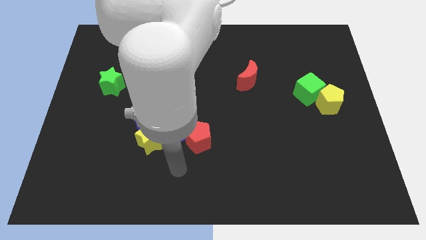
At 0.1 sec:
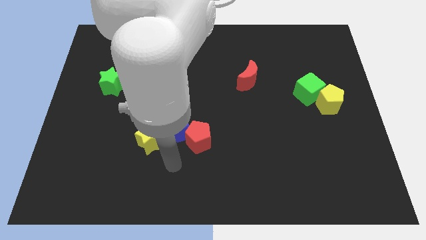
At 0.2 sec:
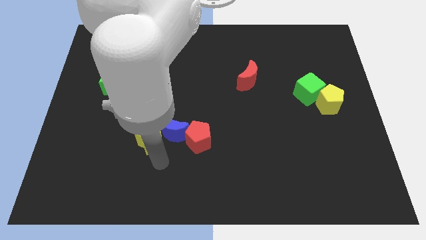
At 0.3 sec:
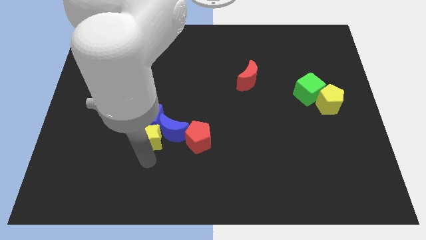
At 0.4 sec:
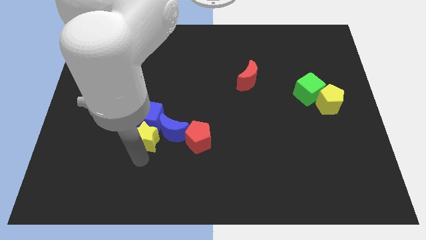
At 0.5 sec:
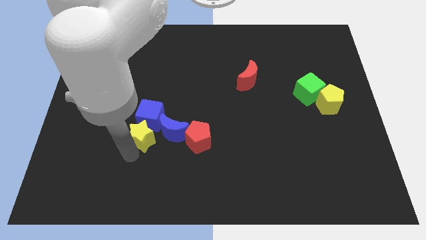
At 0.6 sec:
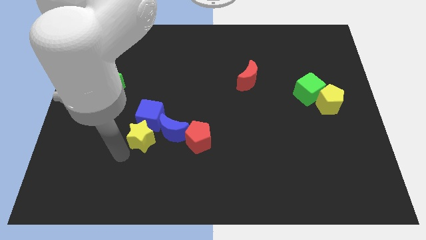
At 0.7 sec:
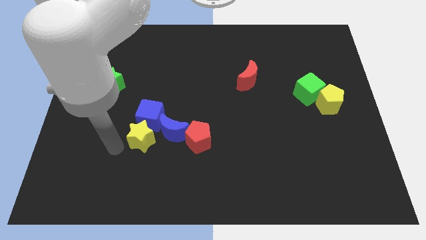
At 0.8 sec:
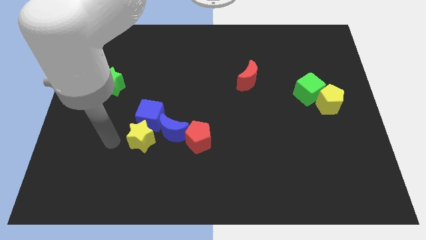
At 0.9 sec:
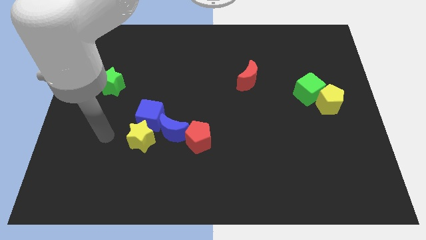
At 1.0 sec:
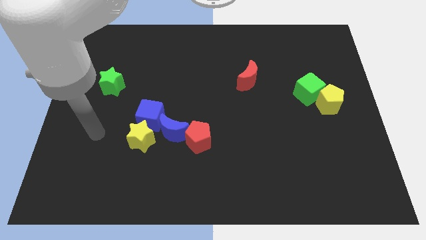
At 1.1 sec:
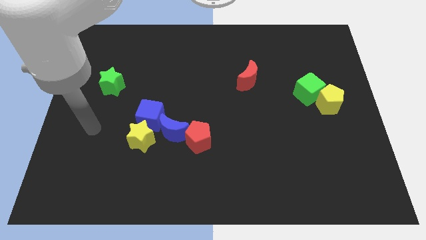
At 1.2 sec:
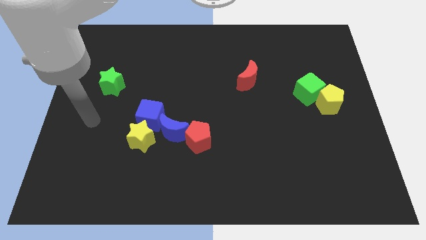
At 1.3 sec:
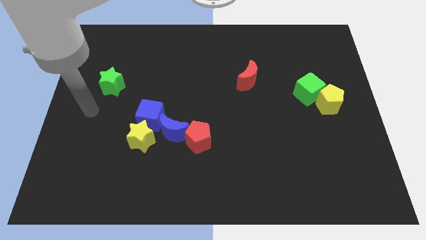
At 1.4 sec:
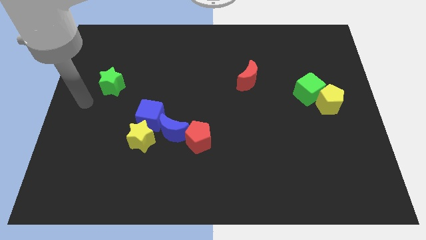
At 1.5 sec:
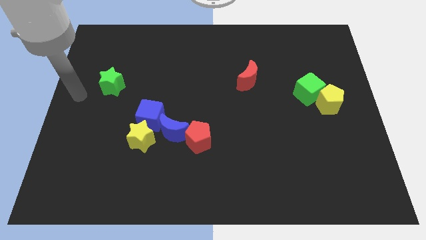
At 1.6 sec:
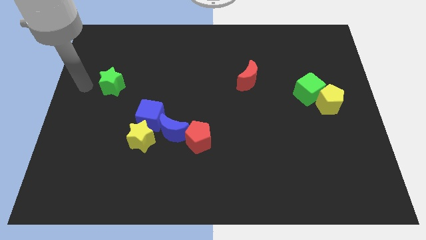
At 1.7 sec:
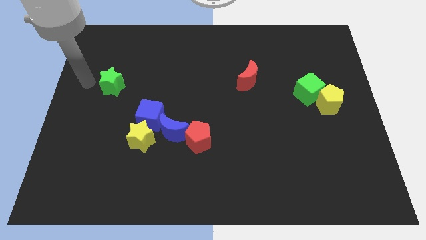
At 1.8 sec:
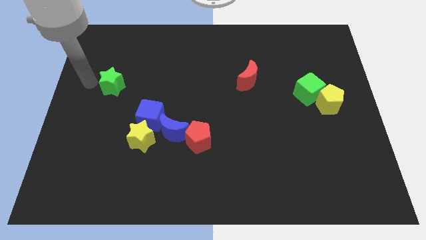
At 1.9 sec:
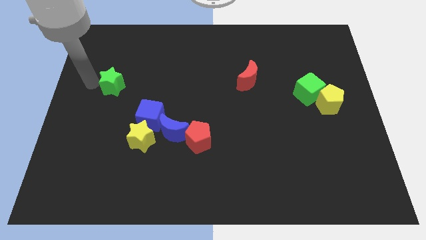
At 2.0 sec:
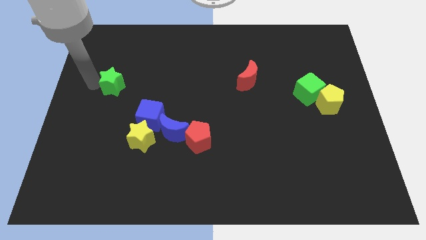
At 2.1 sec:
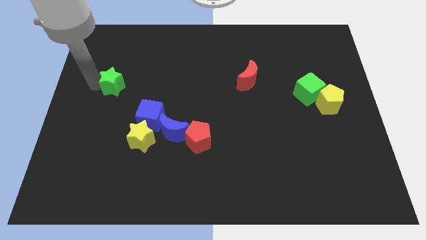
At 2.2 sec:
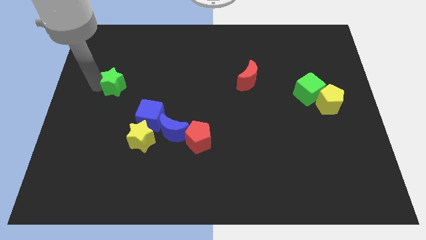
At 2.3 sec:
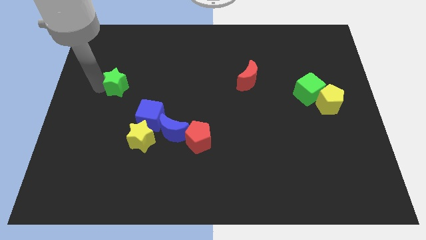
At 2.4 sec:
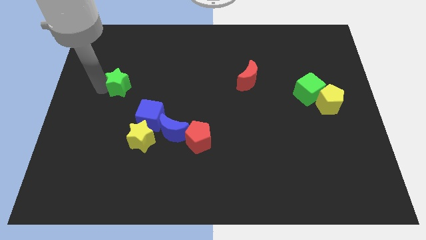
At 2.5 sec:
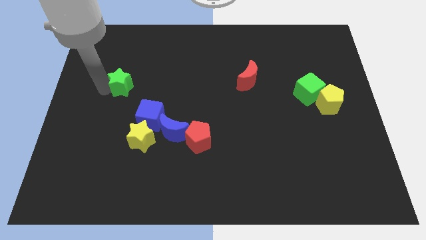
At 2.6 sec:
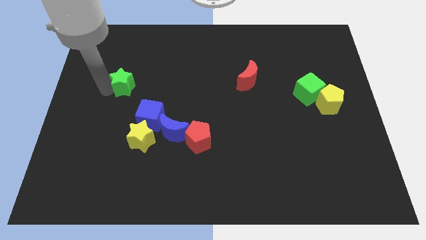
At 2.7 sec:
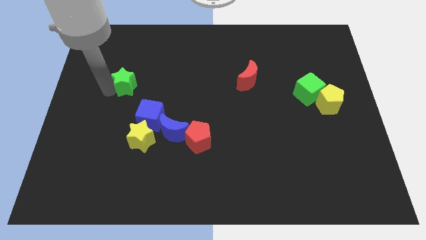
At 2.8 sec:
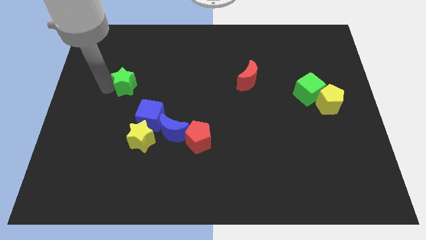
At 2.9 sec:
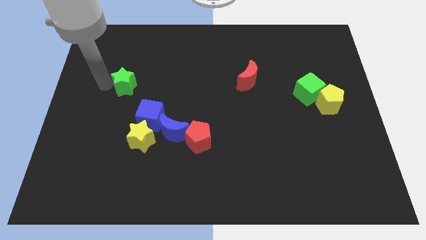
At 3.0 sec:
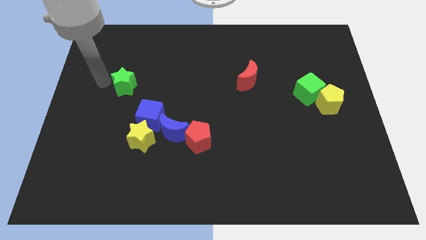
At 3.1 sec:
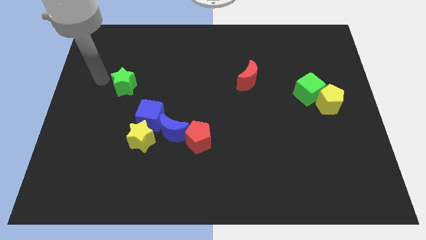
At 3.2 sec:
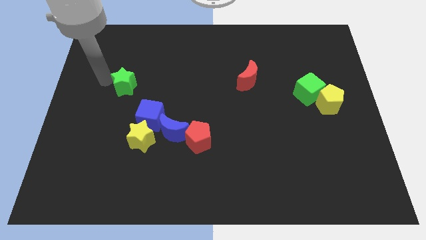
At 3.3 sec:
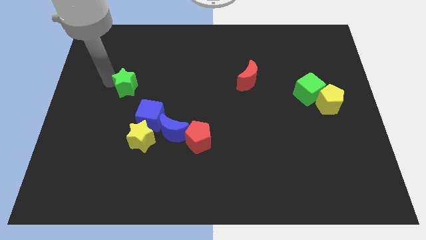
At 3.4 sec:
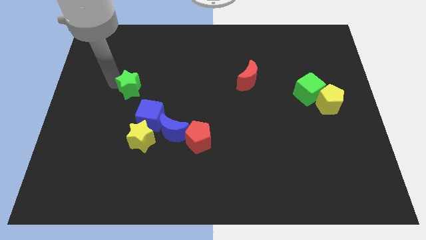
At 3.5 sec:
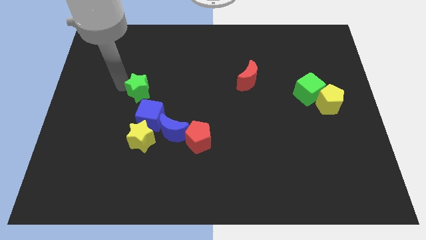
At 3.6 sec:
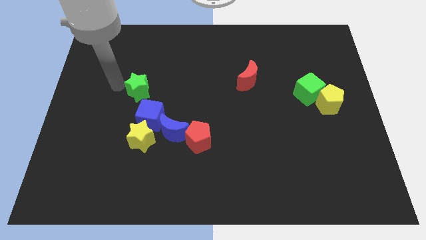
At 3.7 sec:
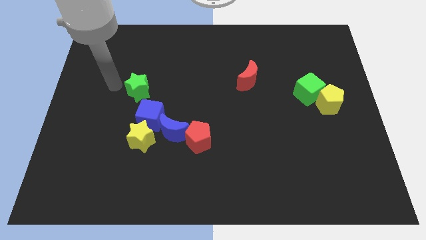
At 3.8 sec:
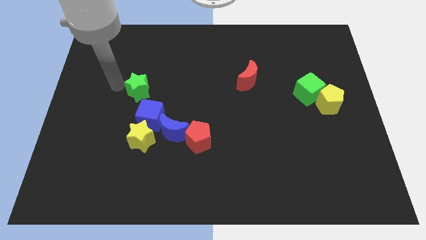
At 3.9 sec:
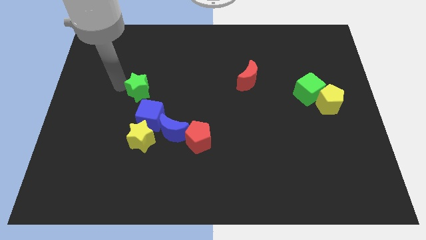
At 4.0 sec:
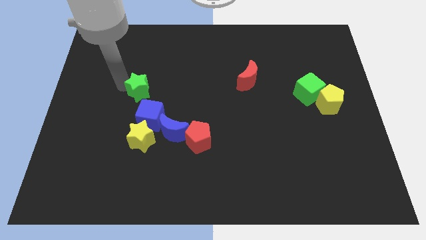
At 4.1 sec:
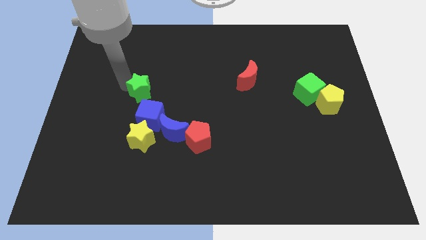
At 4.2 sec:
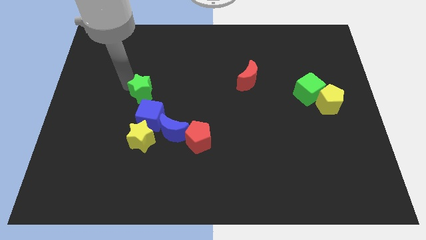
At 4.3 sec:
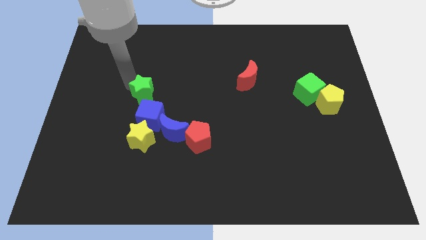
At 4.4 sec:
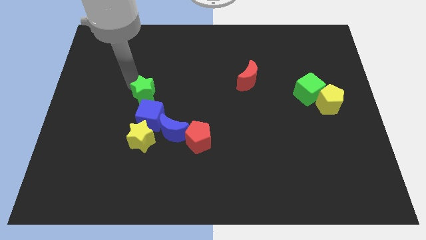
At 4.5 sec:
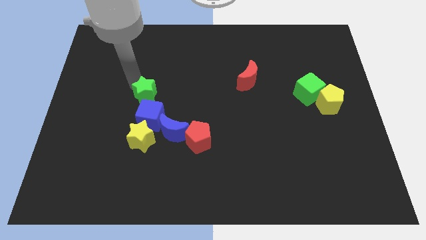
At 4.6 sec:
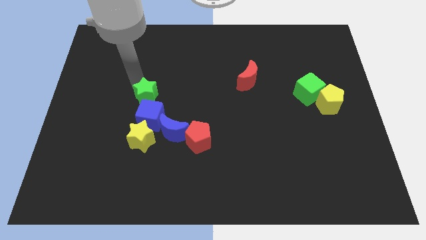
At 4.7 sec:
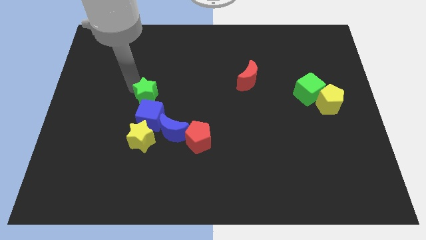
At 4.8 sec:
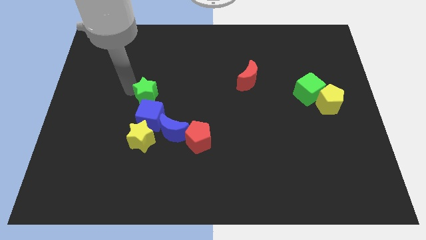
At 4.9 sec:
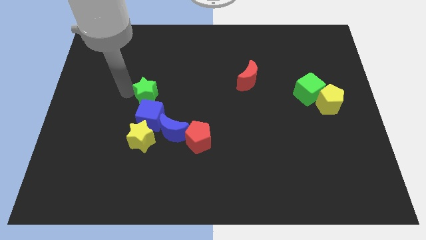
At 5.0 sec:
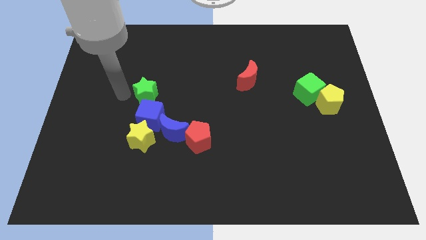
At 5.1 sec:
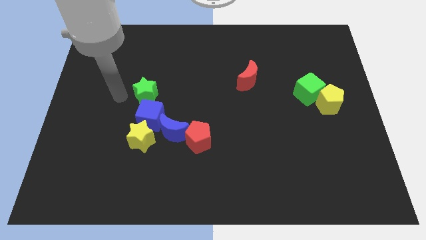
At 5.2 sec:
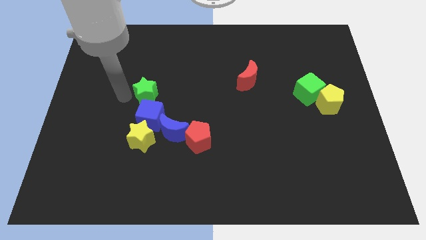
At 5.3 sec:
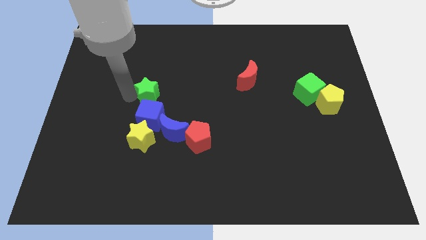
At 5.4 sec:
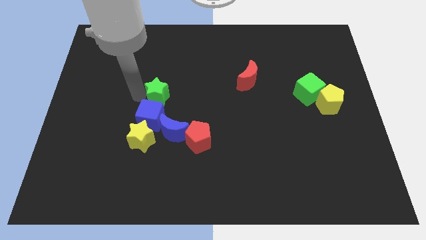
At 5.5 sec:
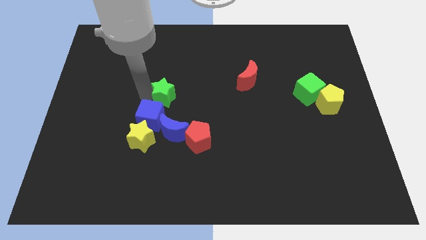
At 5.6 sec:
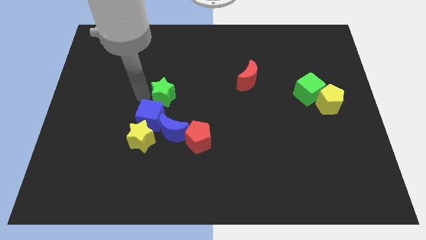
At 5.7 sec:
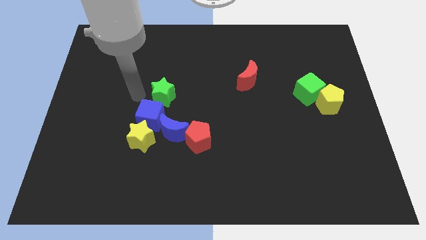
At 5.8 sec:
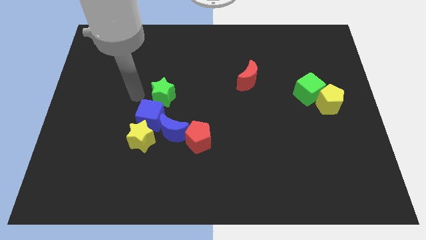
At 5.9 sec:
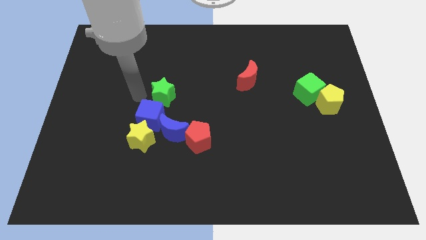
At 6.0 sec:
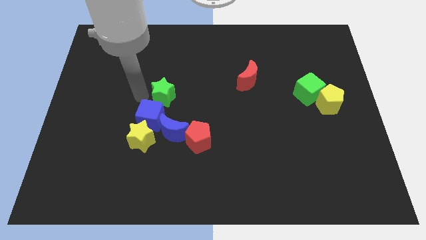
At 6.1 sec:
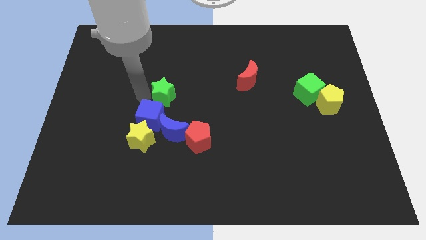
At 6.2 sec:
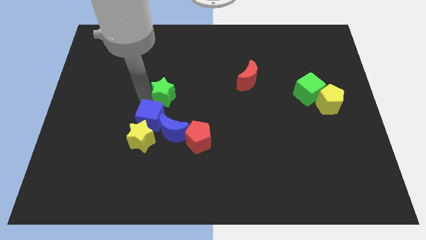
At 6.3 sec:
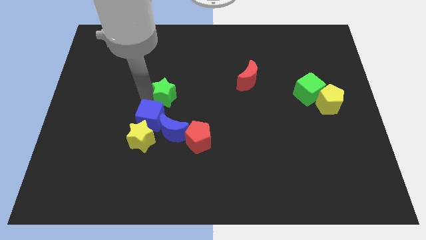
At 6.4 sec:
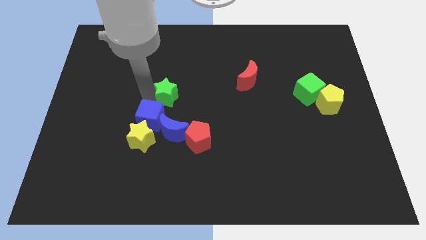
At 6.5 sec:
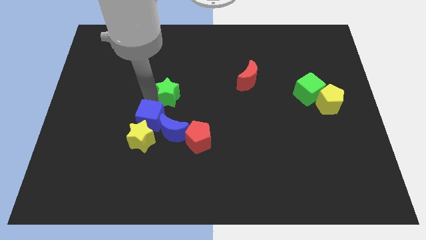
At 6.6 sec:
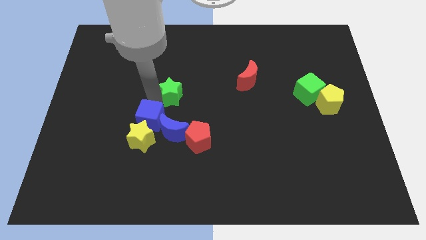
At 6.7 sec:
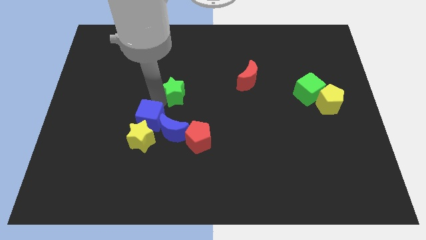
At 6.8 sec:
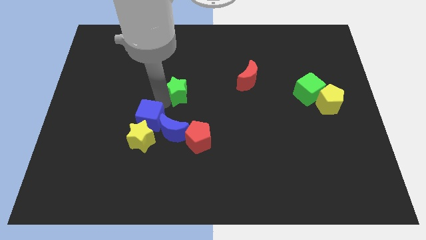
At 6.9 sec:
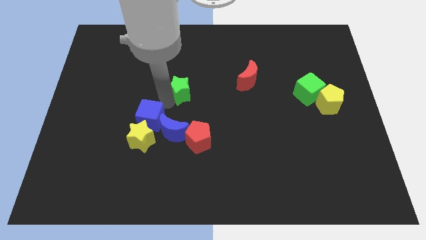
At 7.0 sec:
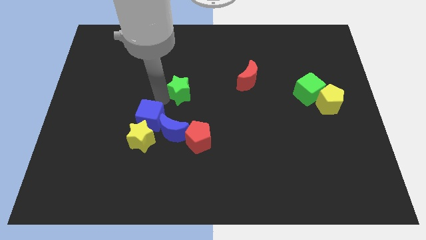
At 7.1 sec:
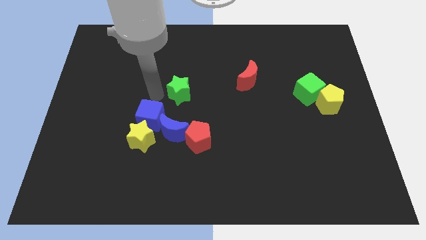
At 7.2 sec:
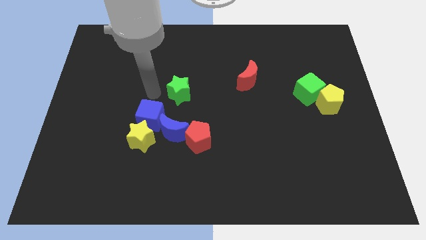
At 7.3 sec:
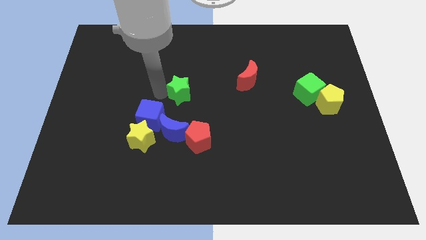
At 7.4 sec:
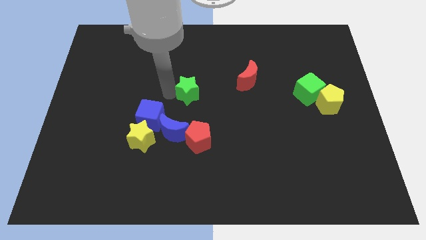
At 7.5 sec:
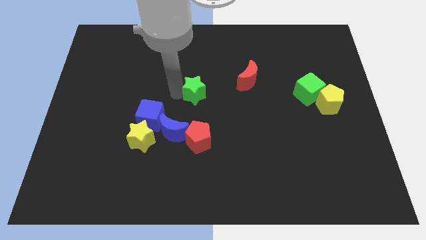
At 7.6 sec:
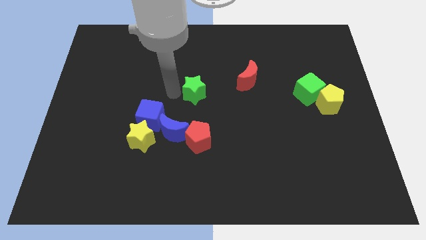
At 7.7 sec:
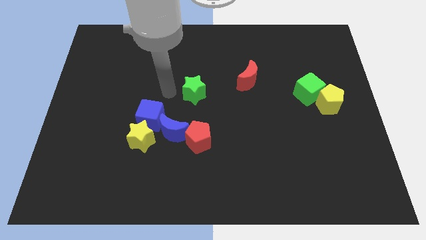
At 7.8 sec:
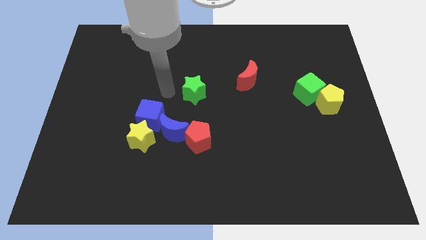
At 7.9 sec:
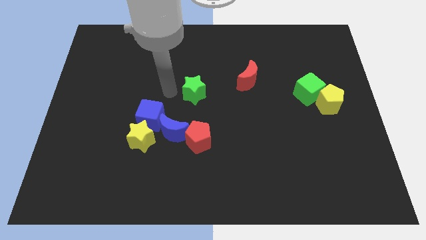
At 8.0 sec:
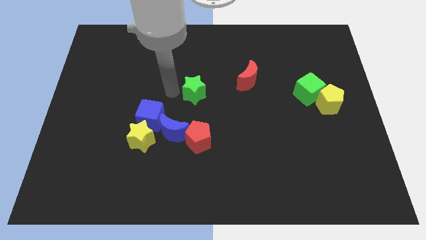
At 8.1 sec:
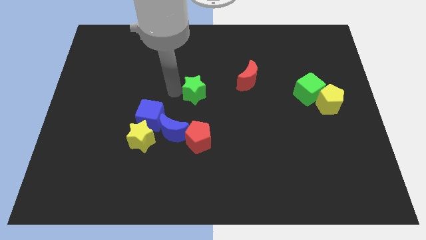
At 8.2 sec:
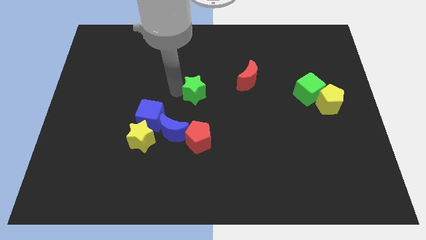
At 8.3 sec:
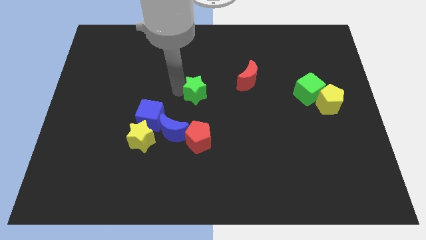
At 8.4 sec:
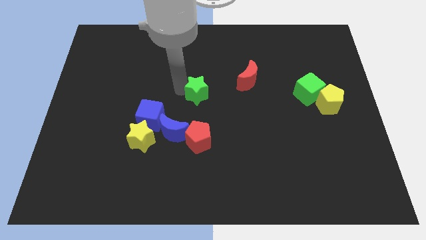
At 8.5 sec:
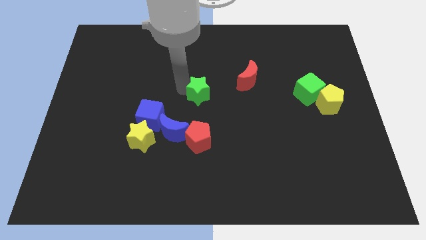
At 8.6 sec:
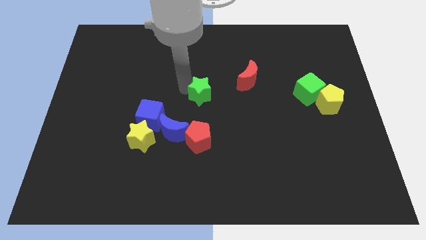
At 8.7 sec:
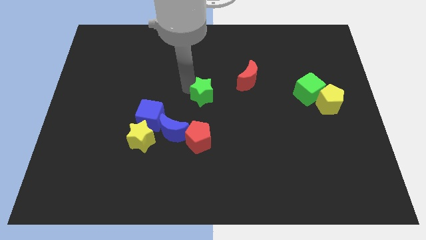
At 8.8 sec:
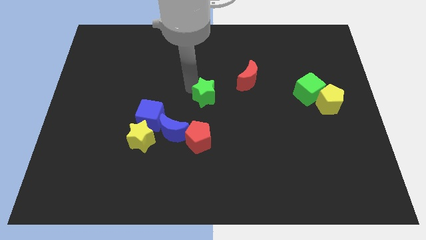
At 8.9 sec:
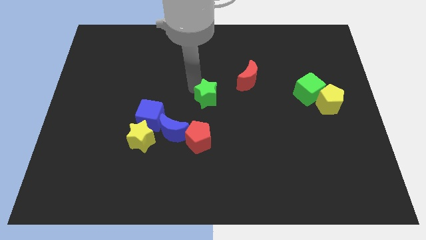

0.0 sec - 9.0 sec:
move the green star to the bottom left of the red moon
